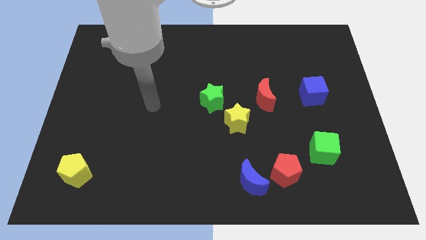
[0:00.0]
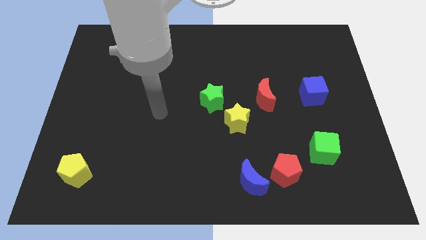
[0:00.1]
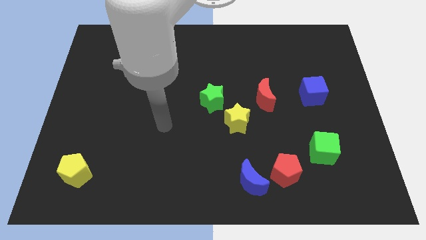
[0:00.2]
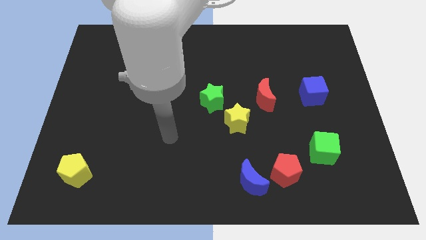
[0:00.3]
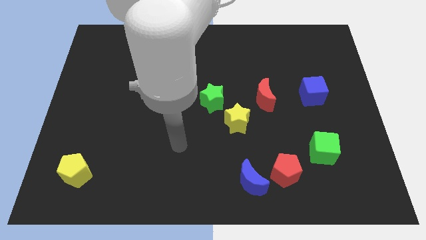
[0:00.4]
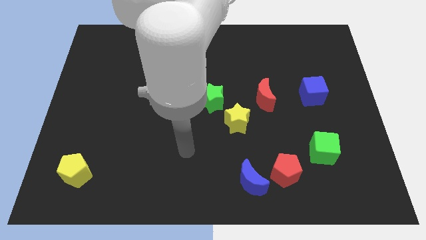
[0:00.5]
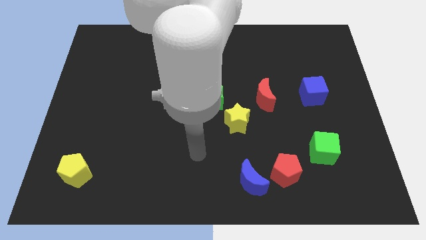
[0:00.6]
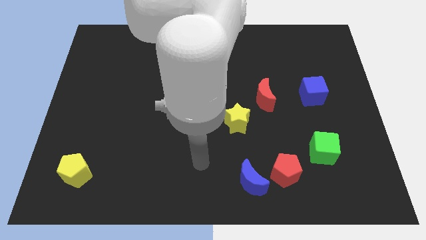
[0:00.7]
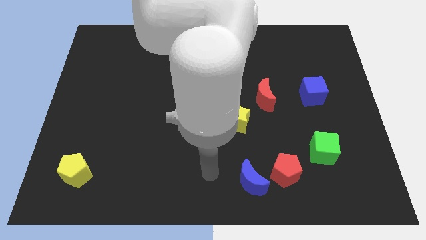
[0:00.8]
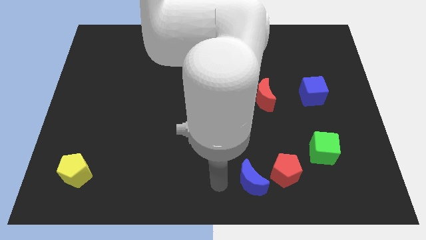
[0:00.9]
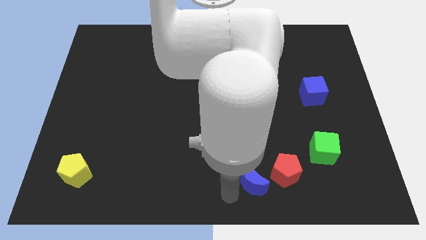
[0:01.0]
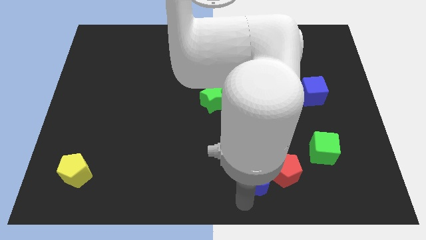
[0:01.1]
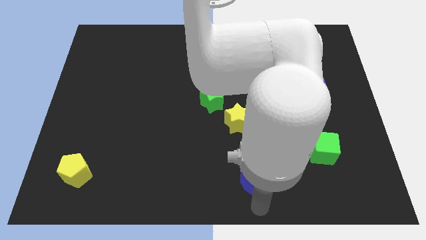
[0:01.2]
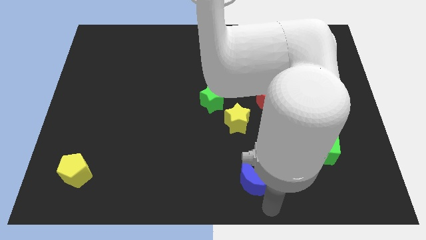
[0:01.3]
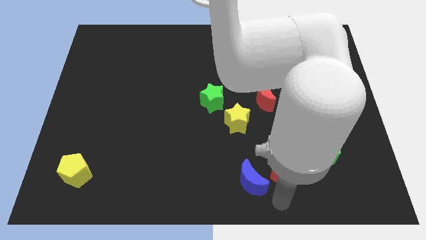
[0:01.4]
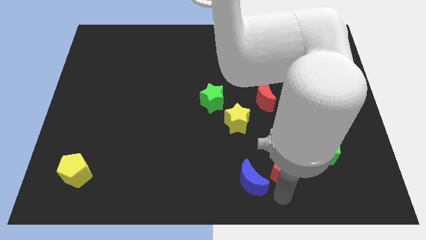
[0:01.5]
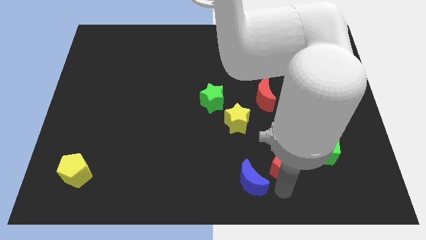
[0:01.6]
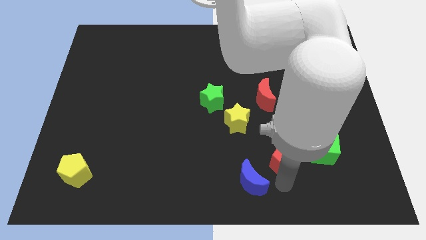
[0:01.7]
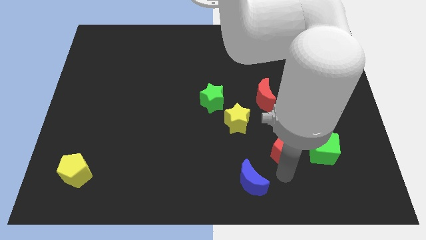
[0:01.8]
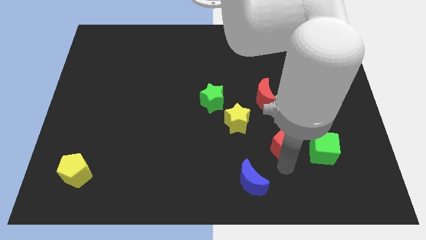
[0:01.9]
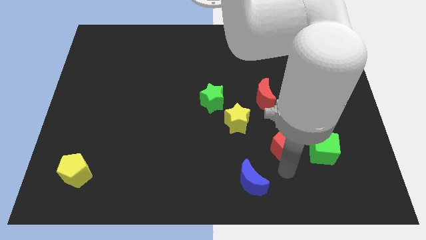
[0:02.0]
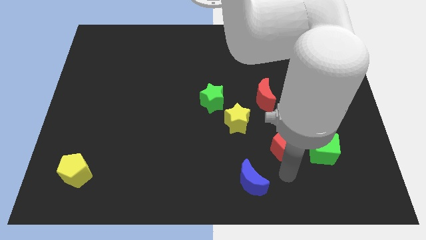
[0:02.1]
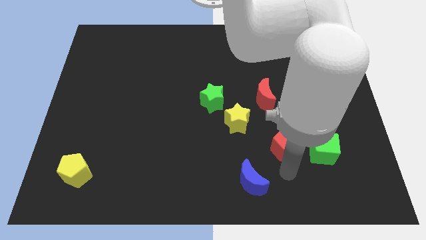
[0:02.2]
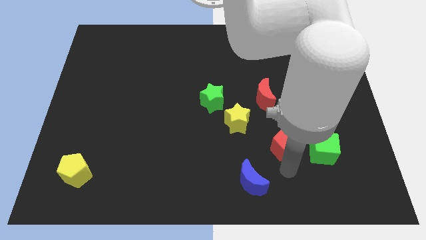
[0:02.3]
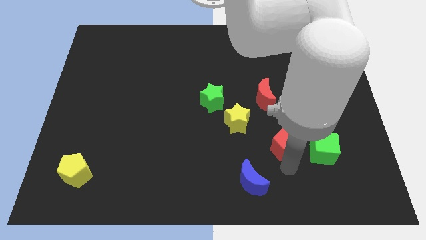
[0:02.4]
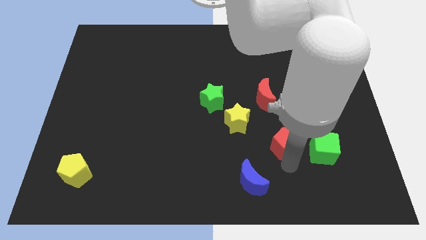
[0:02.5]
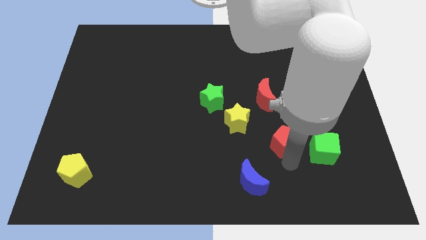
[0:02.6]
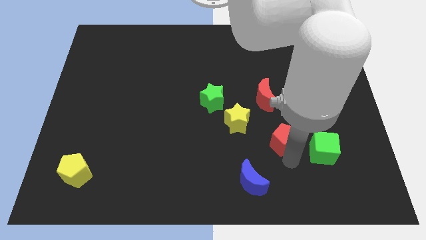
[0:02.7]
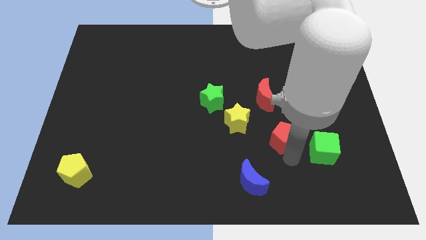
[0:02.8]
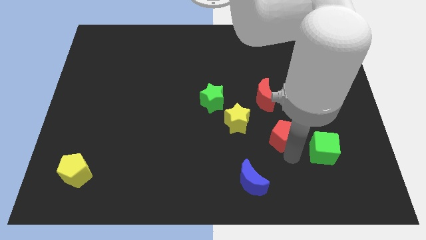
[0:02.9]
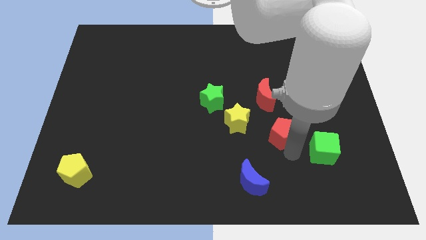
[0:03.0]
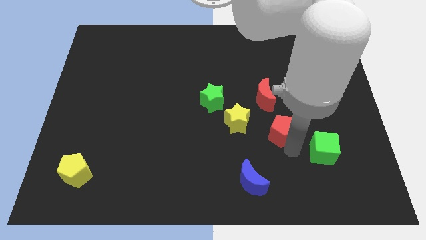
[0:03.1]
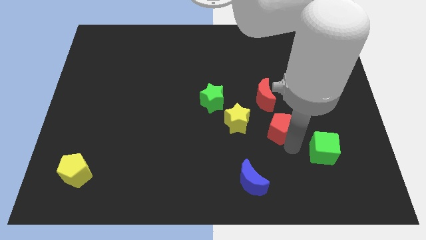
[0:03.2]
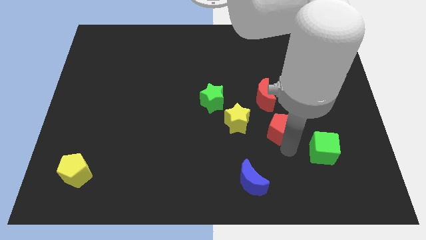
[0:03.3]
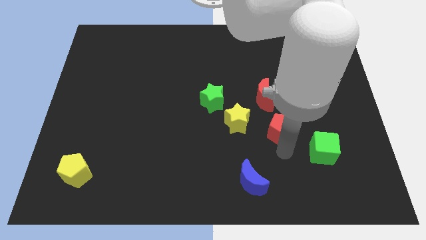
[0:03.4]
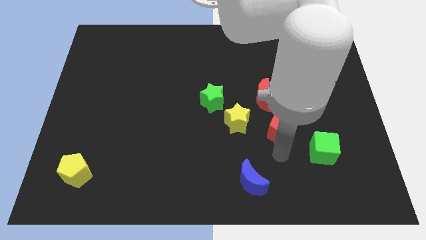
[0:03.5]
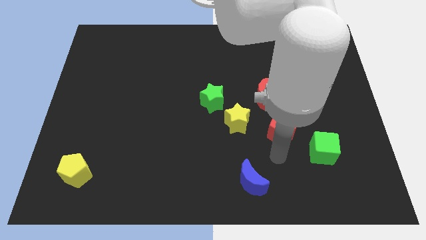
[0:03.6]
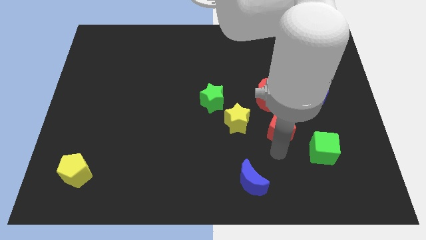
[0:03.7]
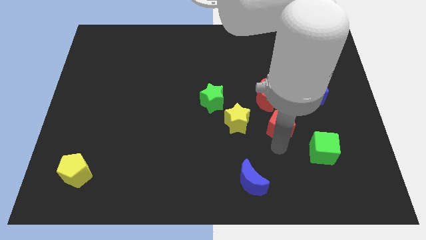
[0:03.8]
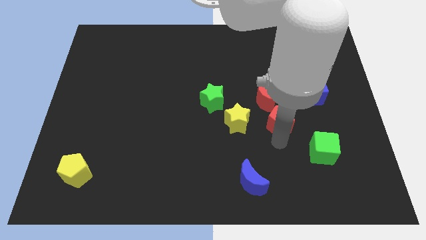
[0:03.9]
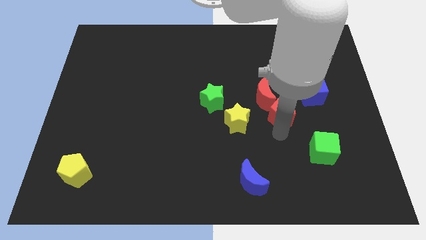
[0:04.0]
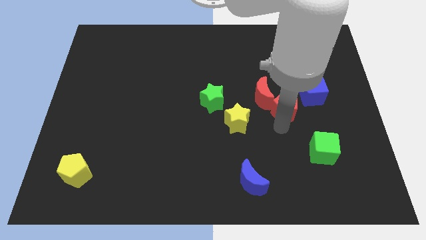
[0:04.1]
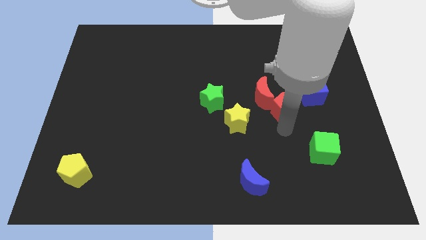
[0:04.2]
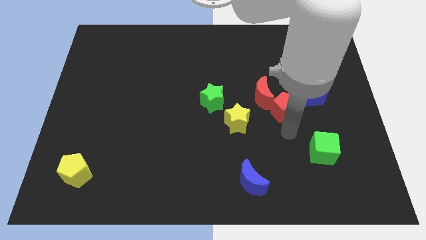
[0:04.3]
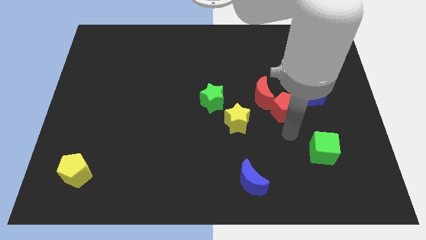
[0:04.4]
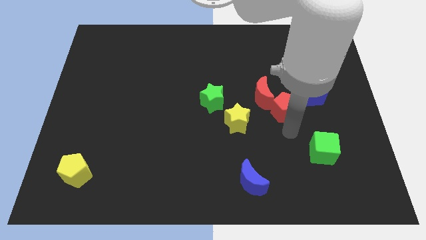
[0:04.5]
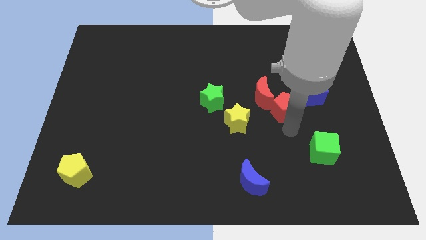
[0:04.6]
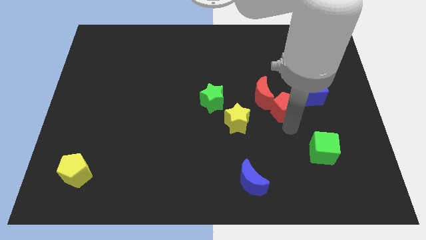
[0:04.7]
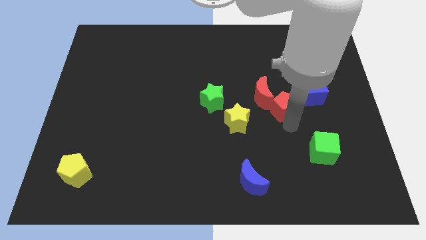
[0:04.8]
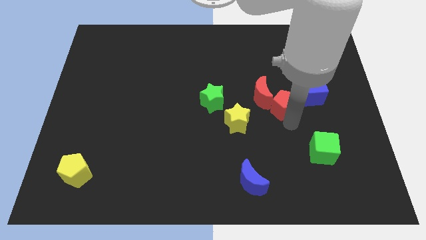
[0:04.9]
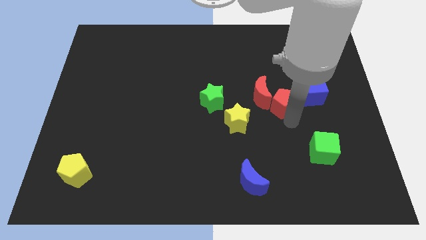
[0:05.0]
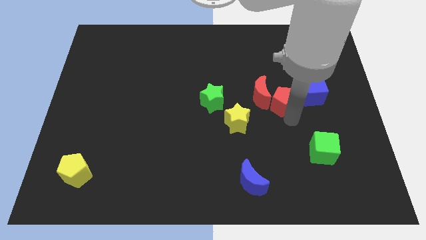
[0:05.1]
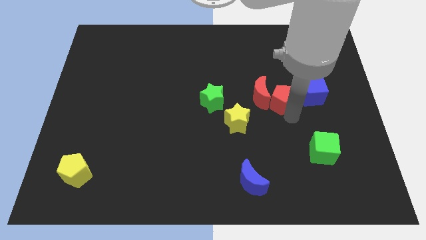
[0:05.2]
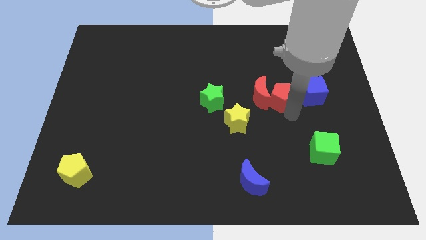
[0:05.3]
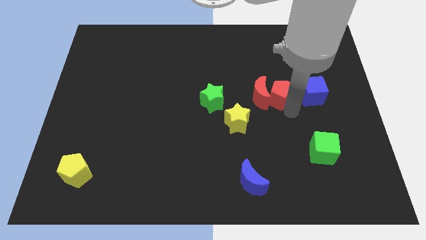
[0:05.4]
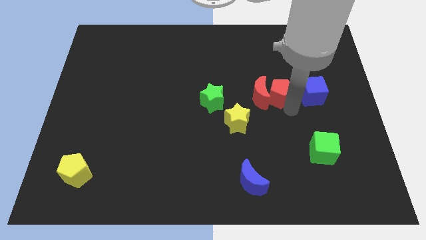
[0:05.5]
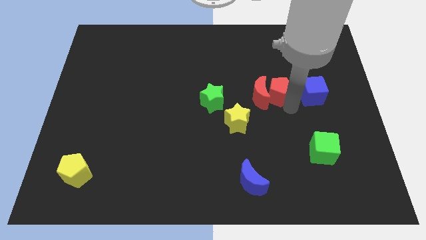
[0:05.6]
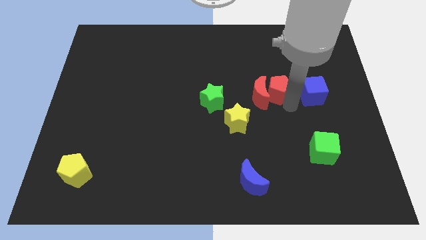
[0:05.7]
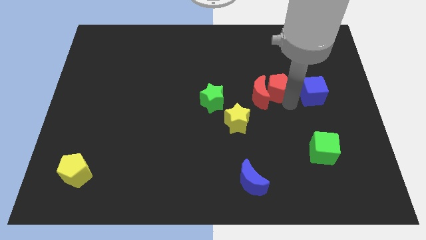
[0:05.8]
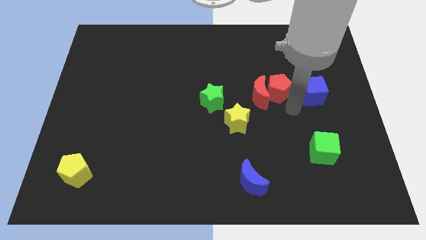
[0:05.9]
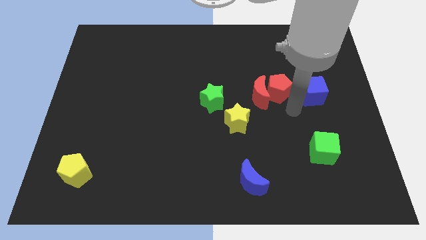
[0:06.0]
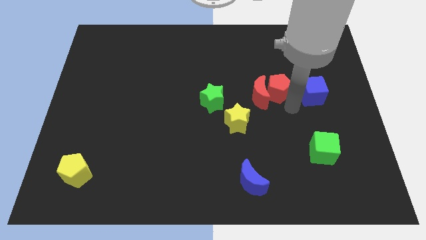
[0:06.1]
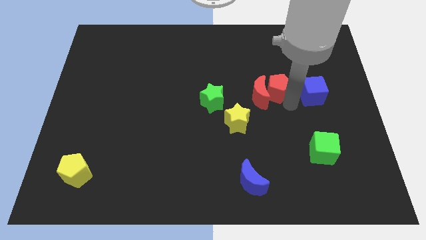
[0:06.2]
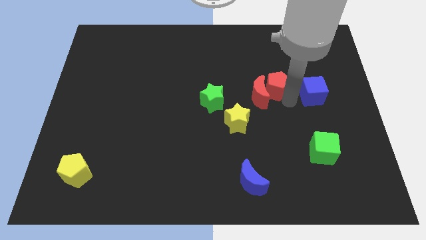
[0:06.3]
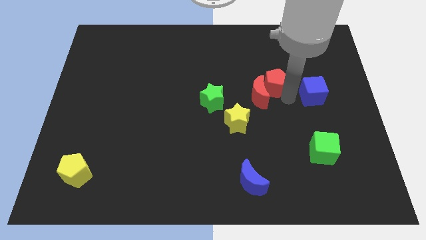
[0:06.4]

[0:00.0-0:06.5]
put the red pentagon to the top side of the red moon
